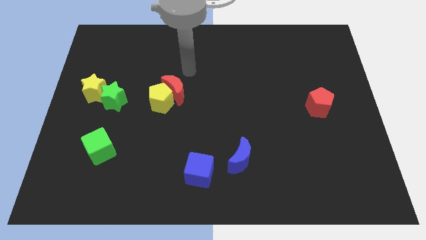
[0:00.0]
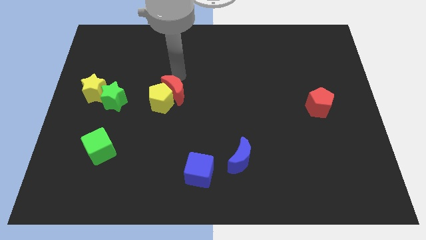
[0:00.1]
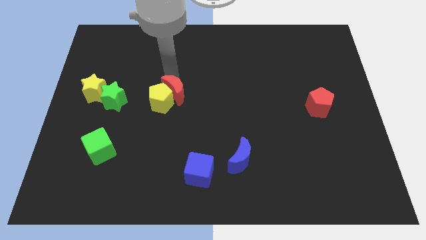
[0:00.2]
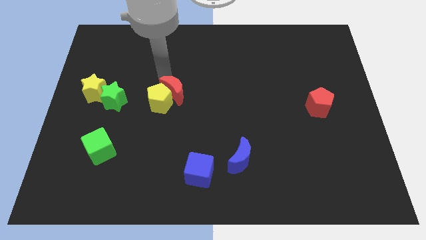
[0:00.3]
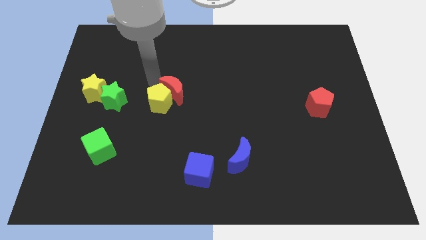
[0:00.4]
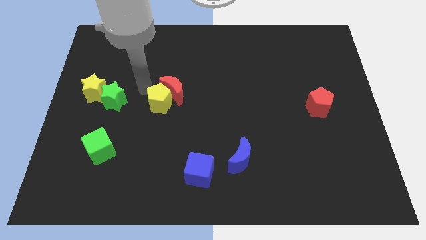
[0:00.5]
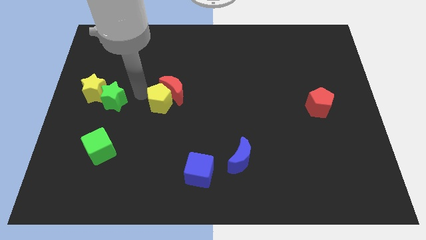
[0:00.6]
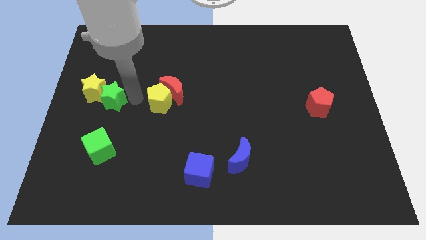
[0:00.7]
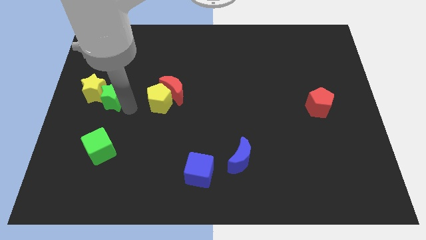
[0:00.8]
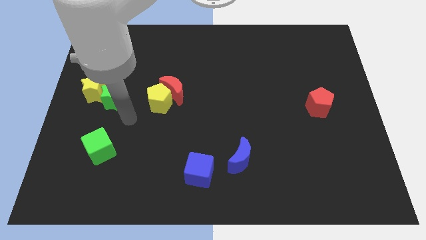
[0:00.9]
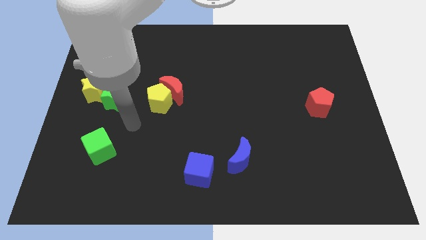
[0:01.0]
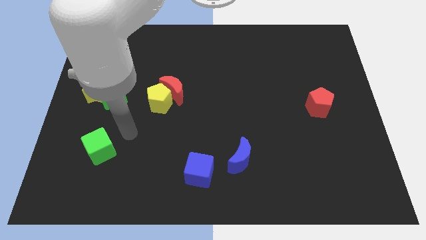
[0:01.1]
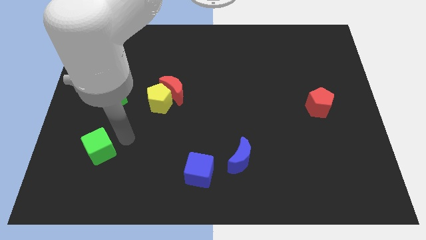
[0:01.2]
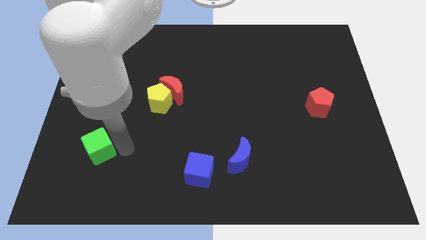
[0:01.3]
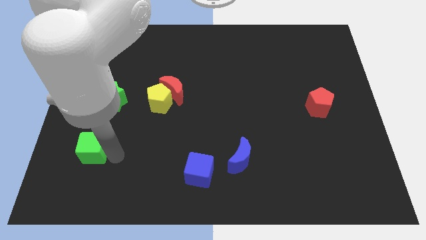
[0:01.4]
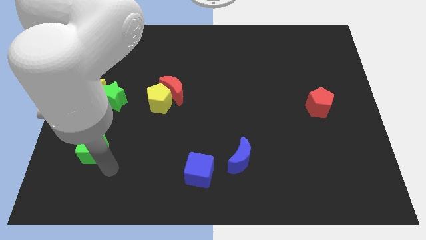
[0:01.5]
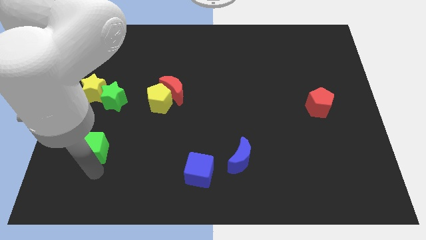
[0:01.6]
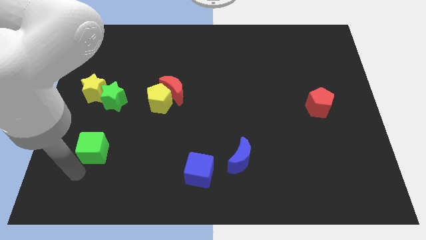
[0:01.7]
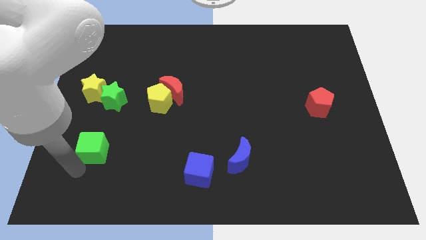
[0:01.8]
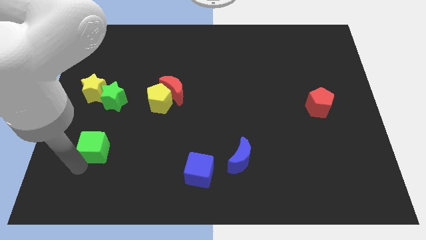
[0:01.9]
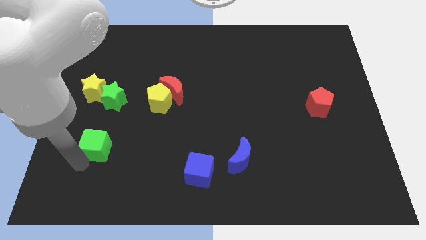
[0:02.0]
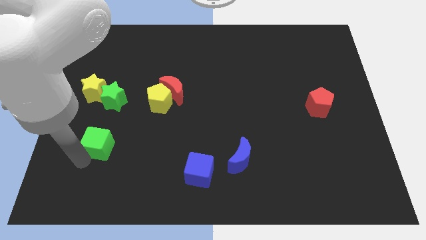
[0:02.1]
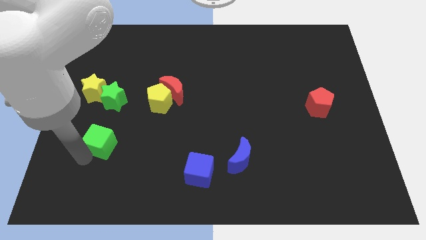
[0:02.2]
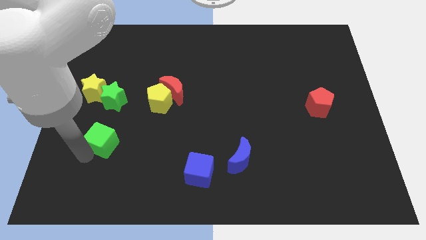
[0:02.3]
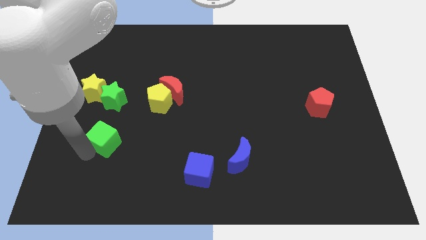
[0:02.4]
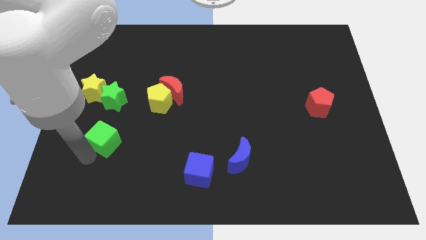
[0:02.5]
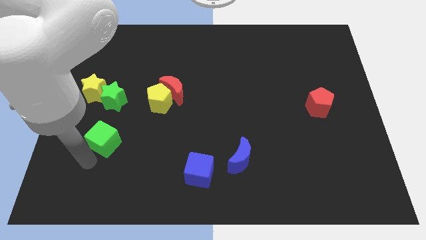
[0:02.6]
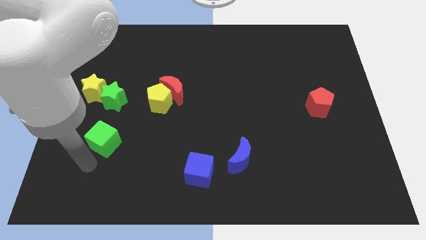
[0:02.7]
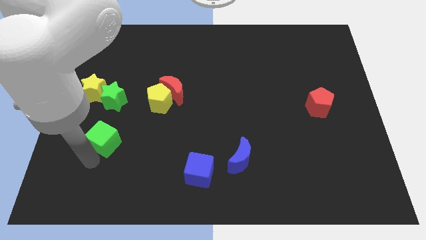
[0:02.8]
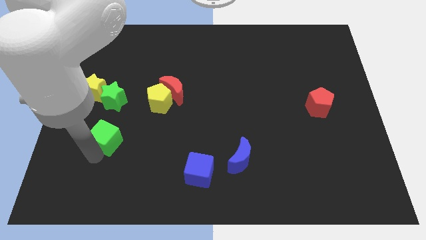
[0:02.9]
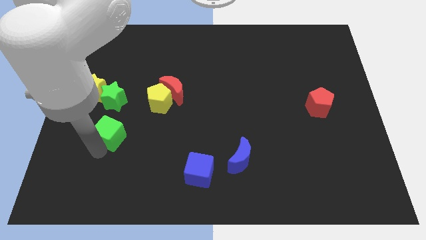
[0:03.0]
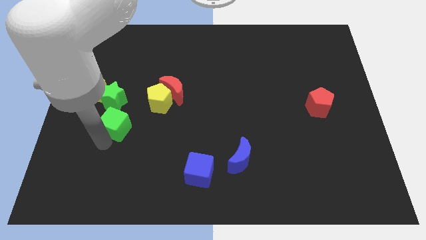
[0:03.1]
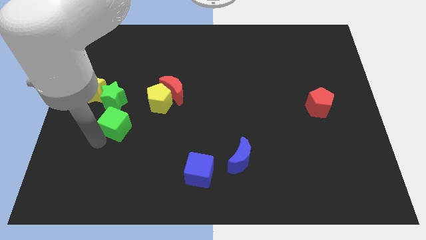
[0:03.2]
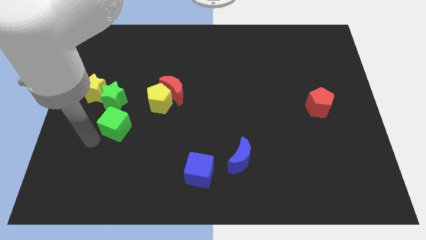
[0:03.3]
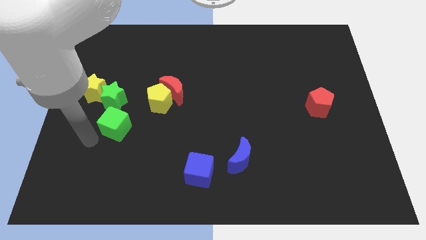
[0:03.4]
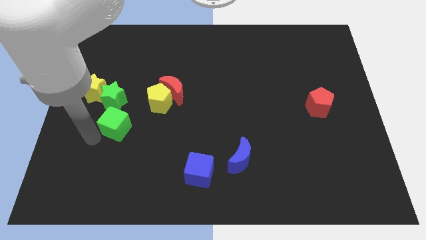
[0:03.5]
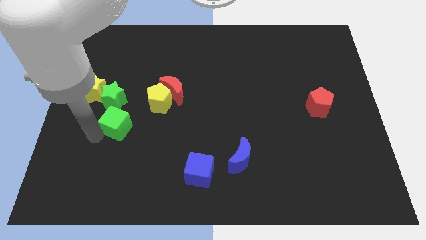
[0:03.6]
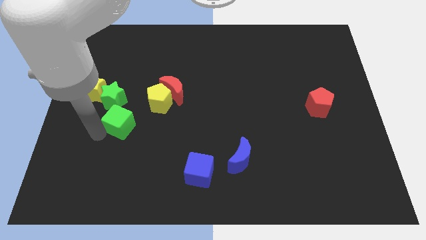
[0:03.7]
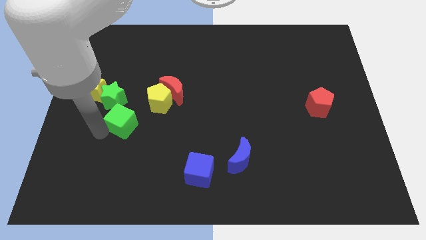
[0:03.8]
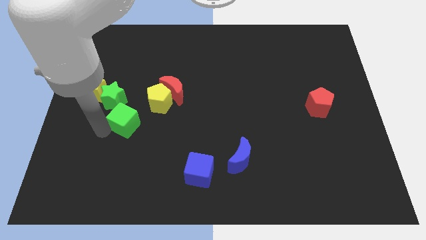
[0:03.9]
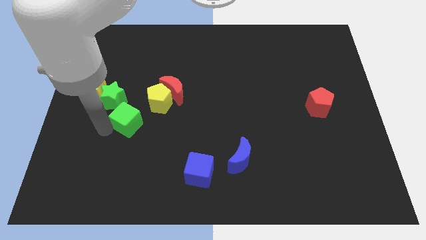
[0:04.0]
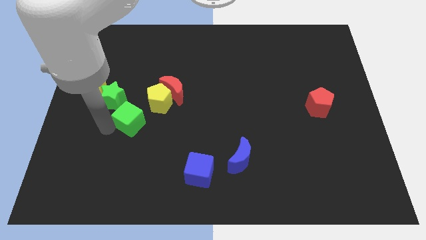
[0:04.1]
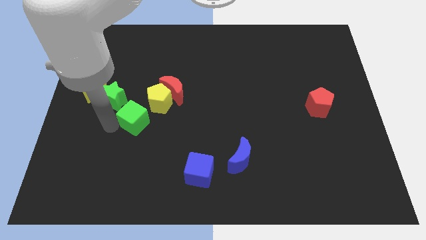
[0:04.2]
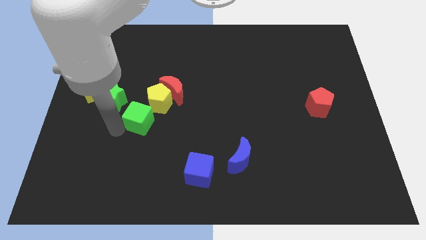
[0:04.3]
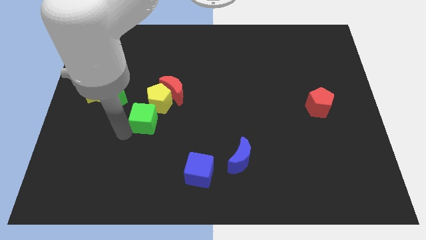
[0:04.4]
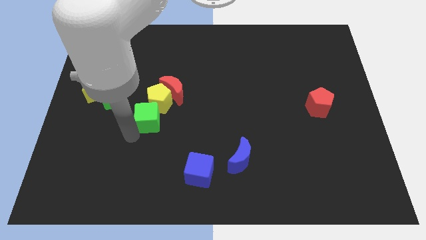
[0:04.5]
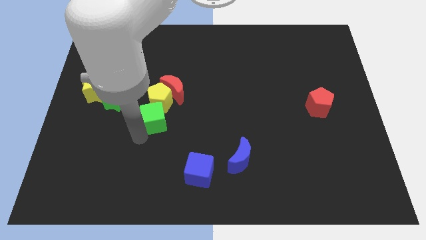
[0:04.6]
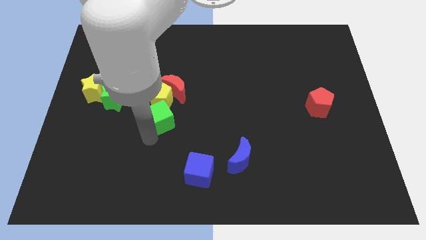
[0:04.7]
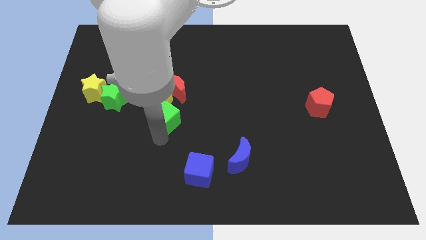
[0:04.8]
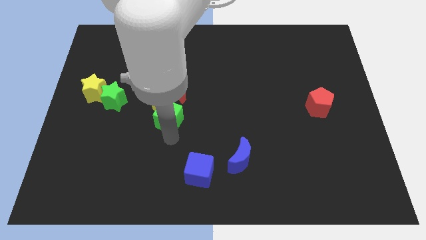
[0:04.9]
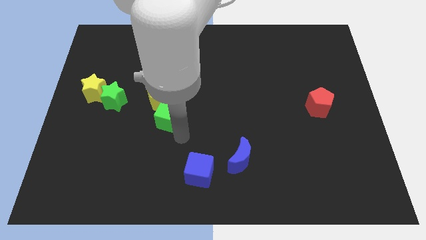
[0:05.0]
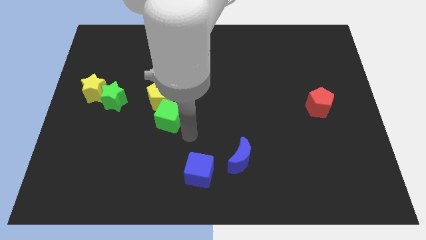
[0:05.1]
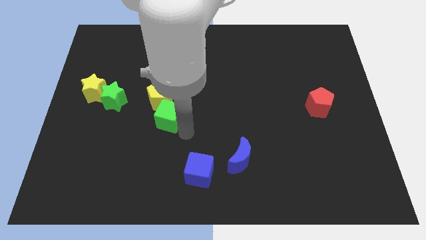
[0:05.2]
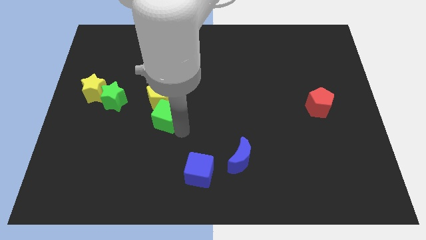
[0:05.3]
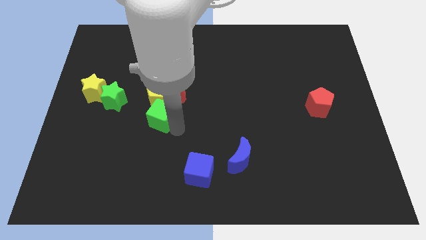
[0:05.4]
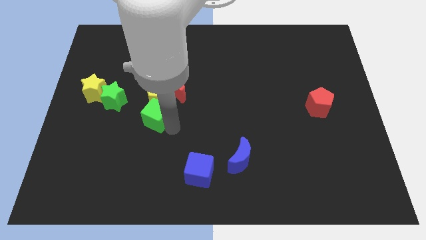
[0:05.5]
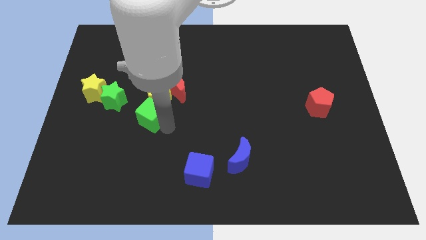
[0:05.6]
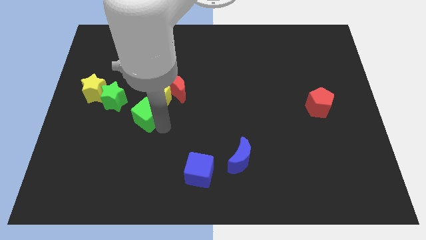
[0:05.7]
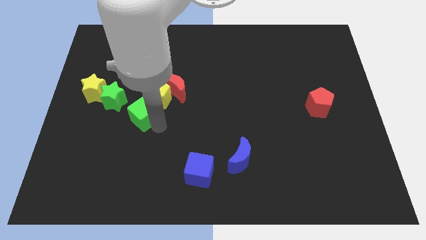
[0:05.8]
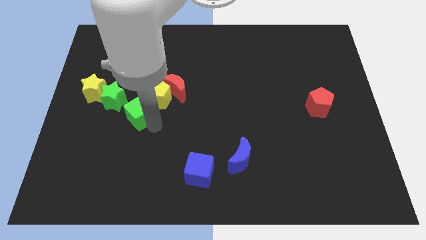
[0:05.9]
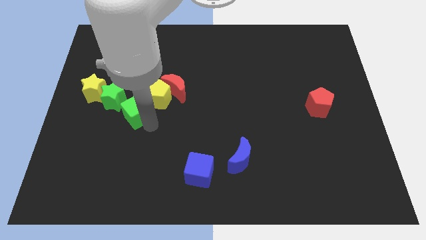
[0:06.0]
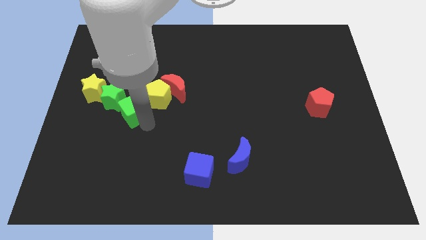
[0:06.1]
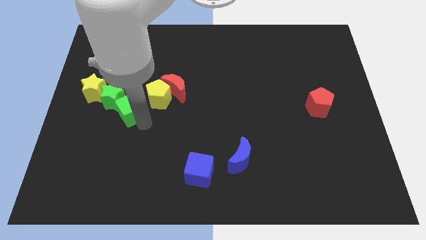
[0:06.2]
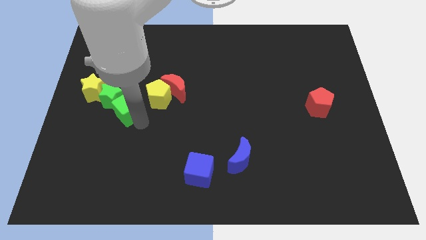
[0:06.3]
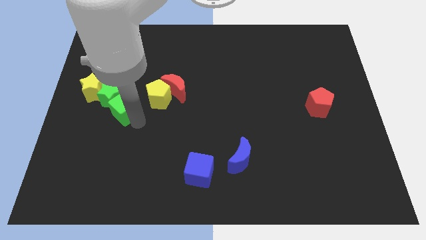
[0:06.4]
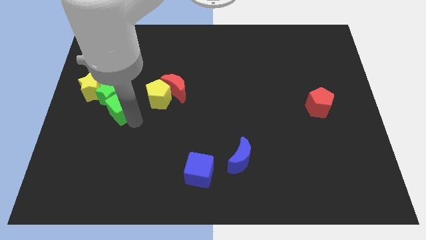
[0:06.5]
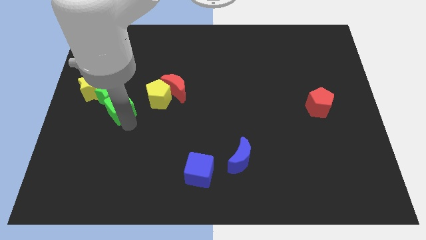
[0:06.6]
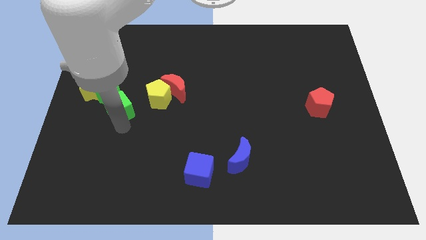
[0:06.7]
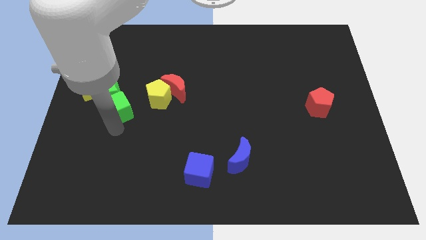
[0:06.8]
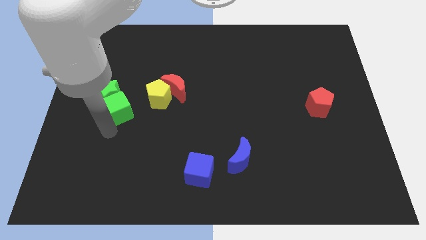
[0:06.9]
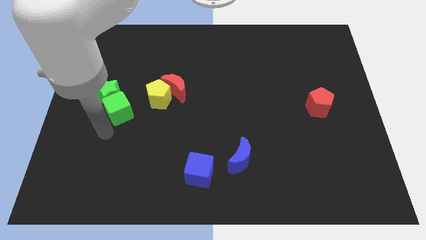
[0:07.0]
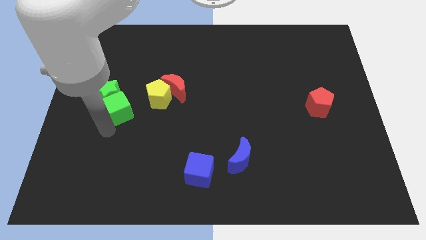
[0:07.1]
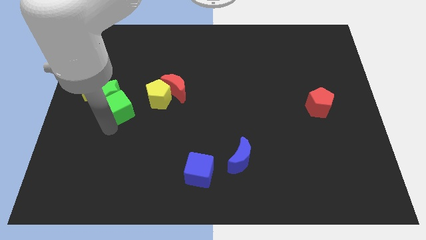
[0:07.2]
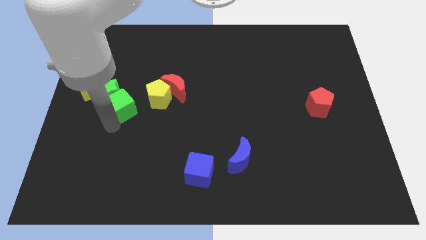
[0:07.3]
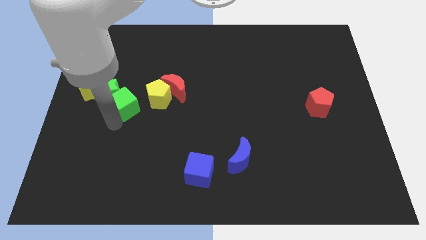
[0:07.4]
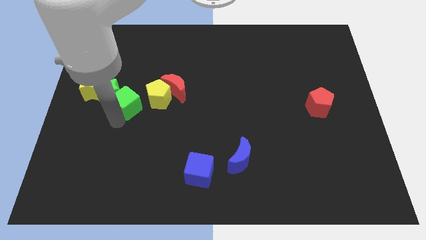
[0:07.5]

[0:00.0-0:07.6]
push the green cube to the left of the red moon
